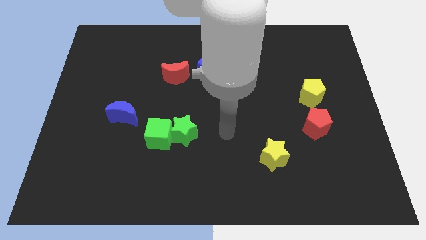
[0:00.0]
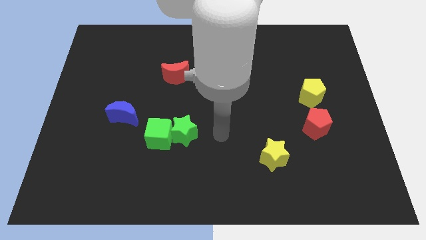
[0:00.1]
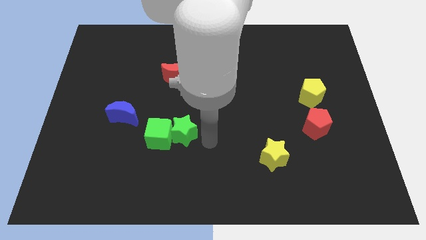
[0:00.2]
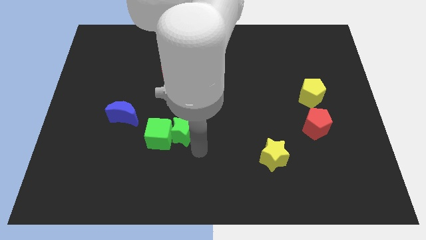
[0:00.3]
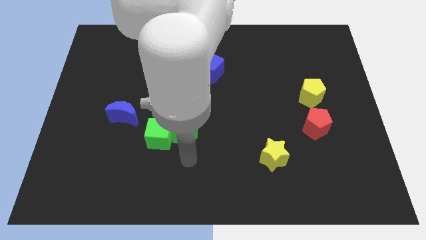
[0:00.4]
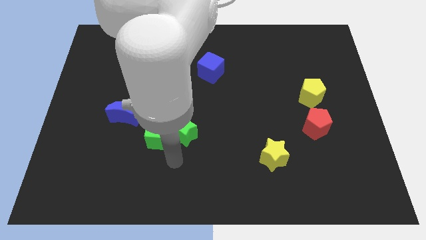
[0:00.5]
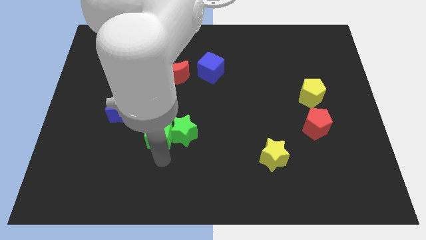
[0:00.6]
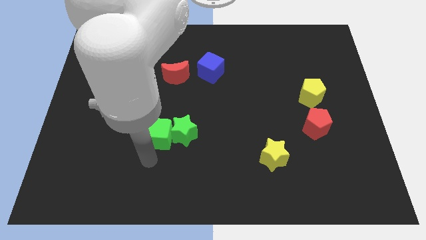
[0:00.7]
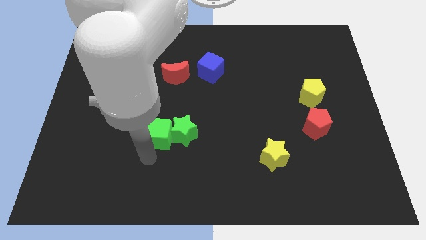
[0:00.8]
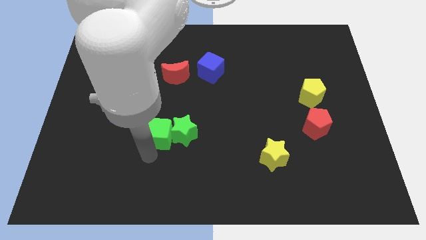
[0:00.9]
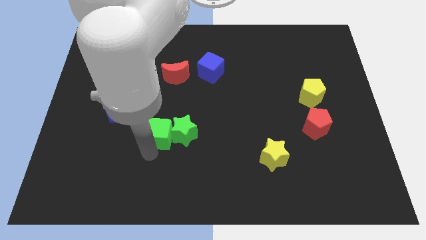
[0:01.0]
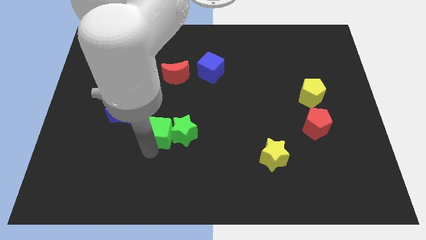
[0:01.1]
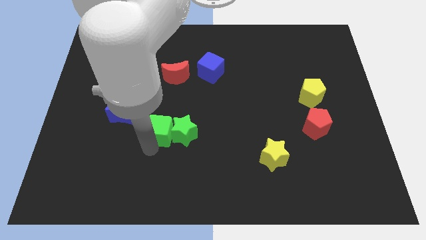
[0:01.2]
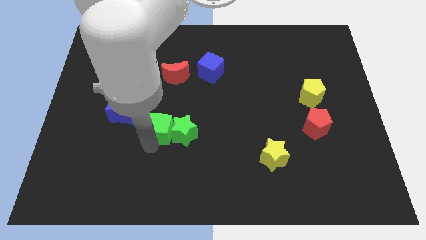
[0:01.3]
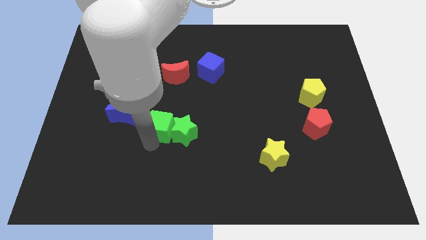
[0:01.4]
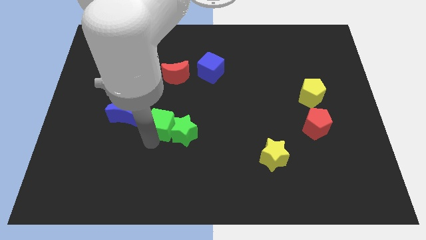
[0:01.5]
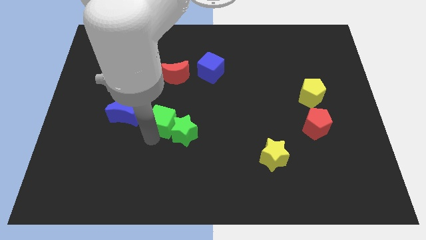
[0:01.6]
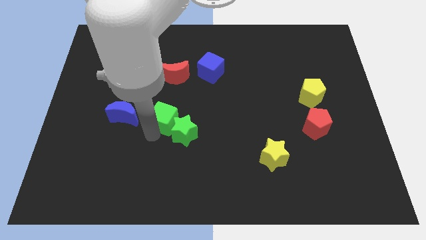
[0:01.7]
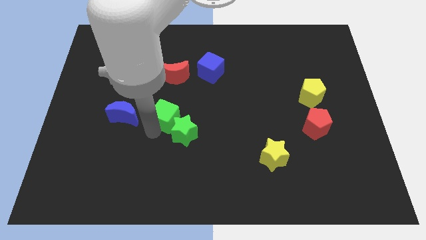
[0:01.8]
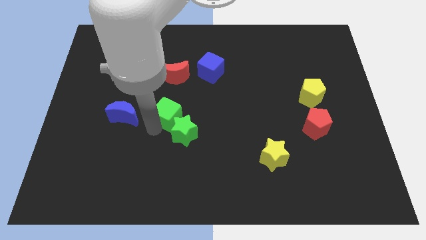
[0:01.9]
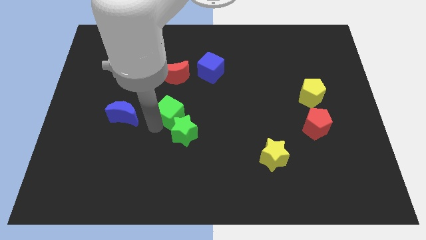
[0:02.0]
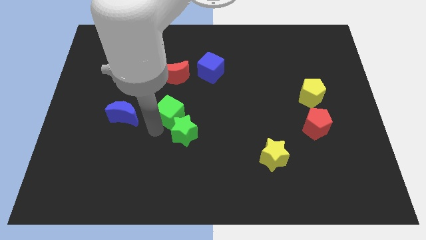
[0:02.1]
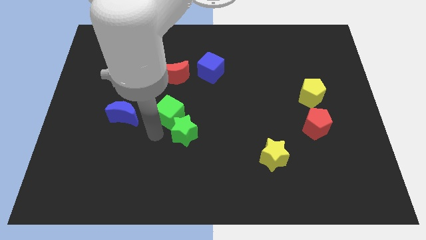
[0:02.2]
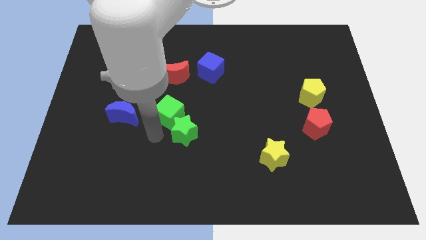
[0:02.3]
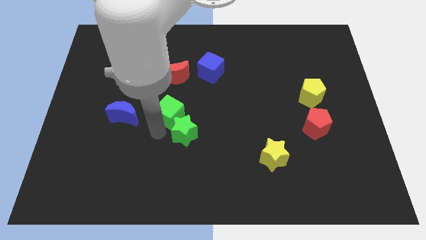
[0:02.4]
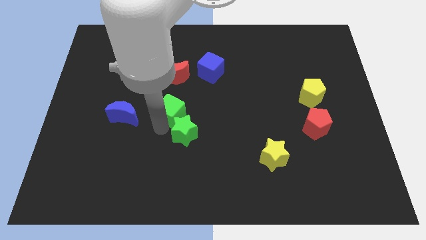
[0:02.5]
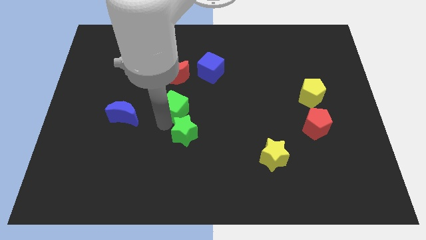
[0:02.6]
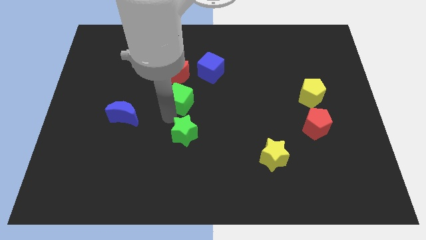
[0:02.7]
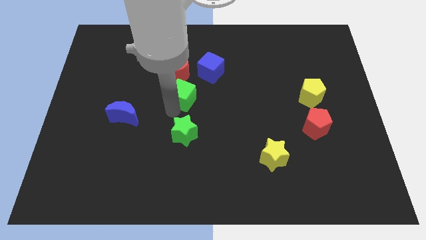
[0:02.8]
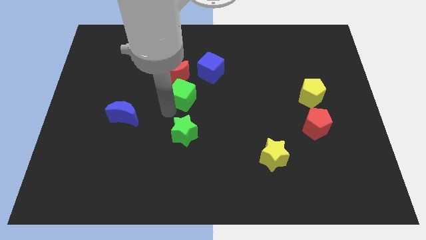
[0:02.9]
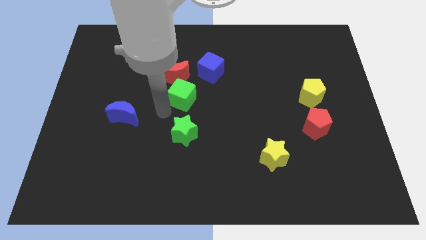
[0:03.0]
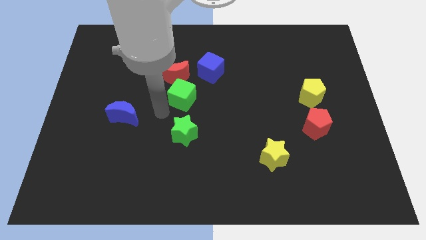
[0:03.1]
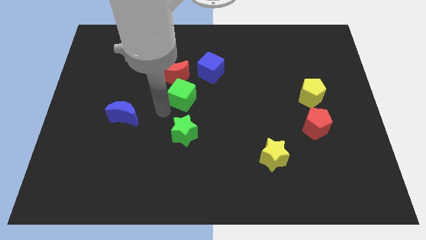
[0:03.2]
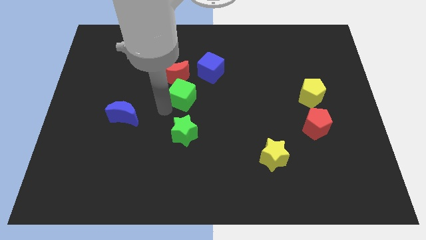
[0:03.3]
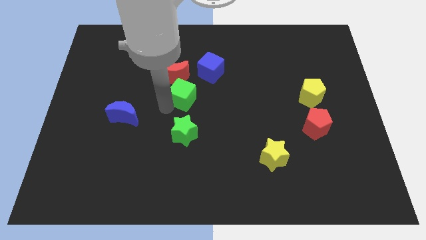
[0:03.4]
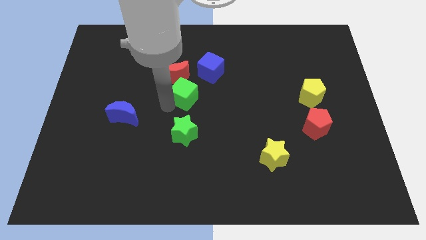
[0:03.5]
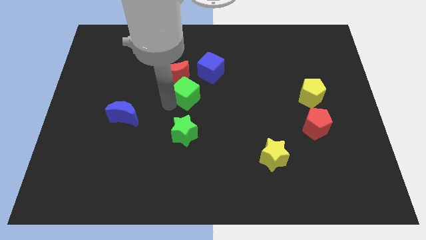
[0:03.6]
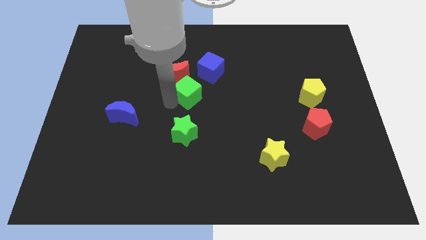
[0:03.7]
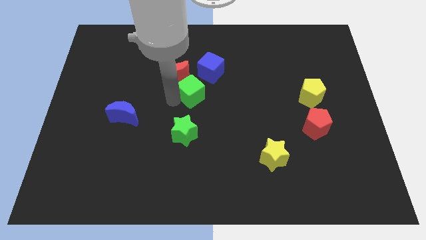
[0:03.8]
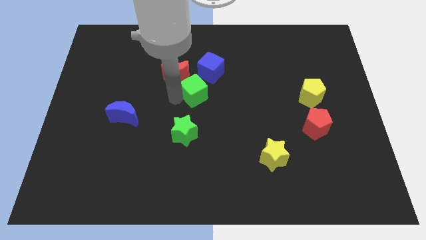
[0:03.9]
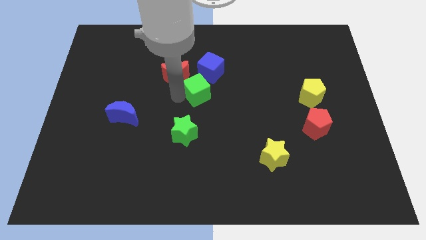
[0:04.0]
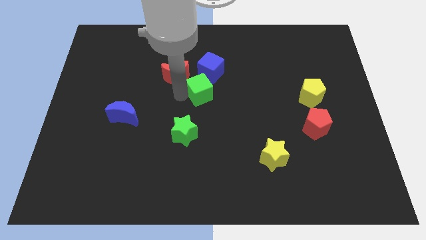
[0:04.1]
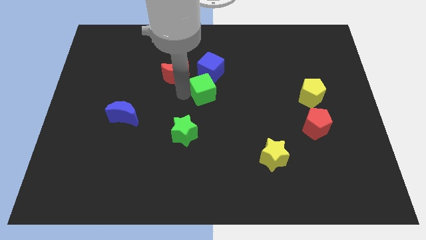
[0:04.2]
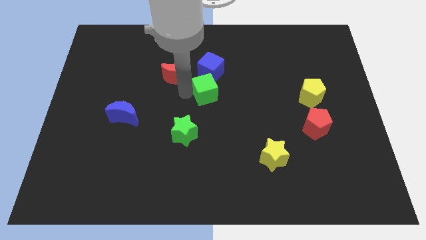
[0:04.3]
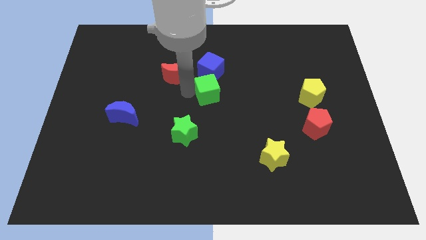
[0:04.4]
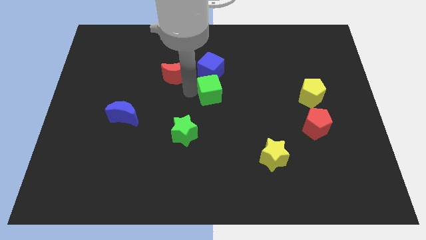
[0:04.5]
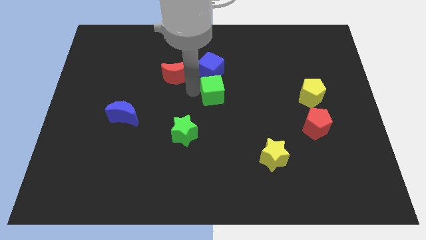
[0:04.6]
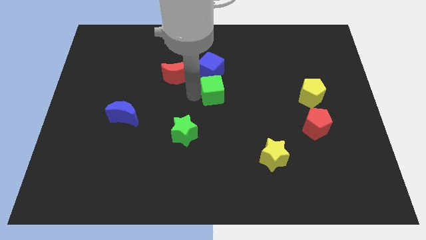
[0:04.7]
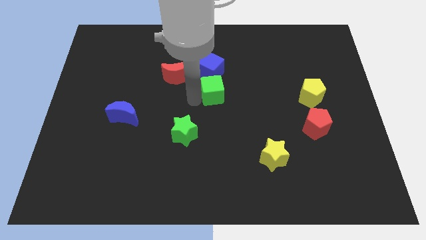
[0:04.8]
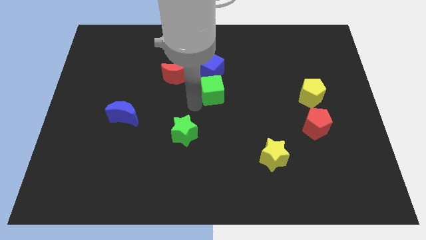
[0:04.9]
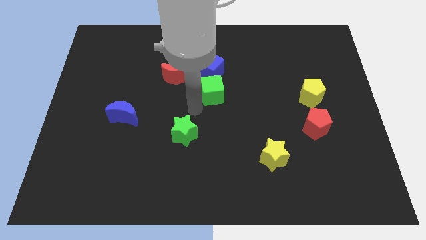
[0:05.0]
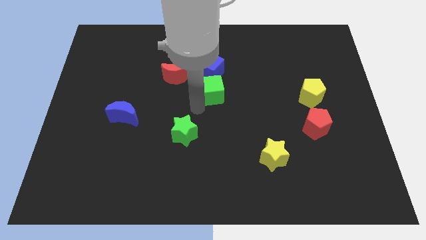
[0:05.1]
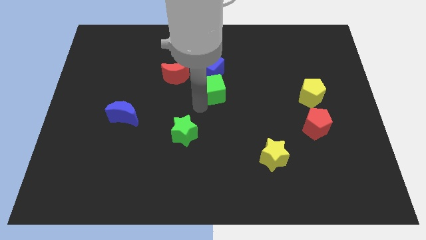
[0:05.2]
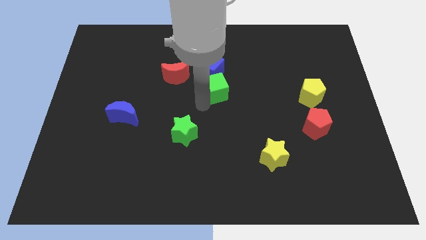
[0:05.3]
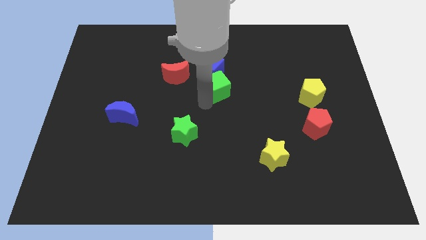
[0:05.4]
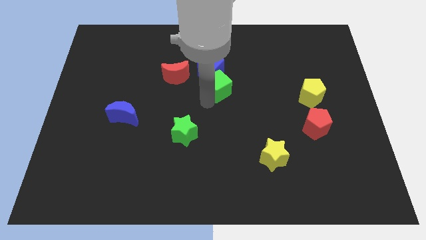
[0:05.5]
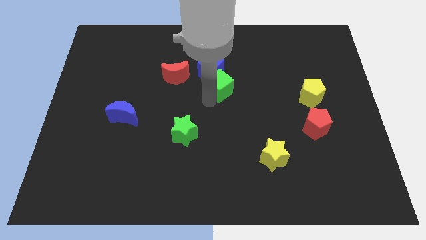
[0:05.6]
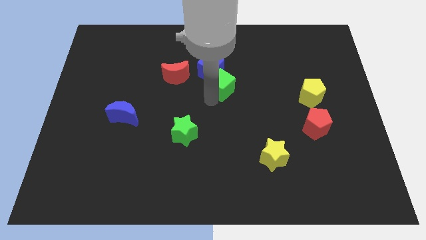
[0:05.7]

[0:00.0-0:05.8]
slide the green cube upwards and right diagonally

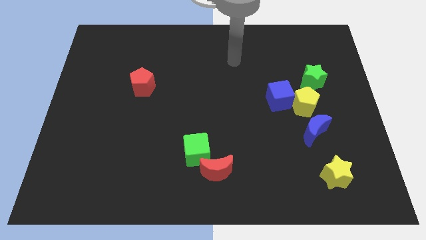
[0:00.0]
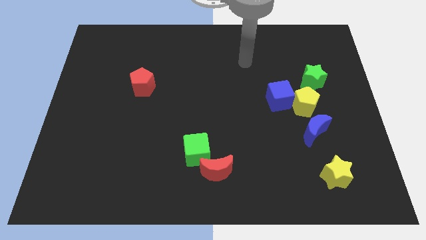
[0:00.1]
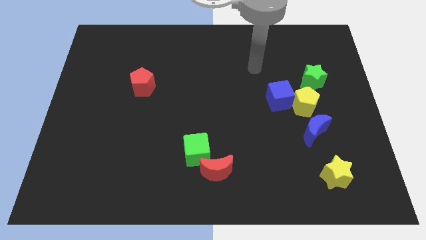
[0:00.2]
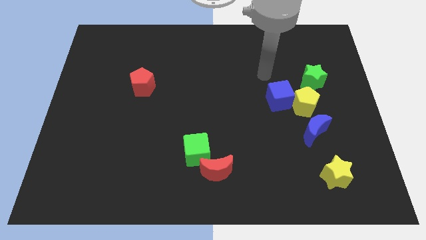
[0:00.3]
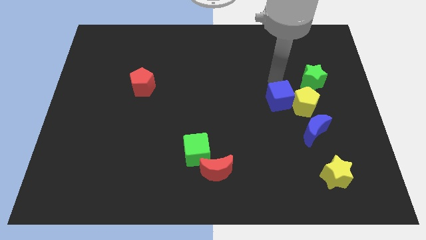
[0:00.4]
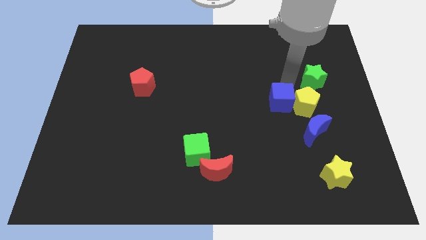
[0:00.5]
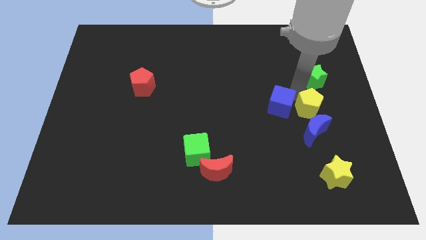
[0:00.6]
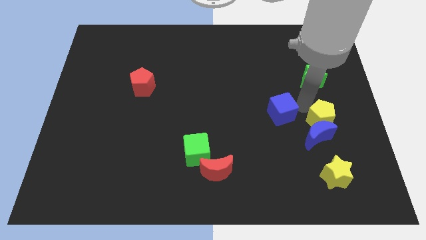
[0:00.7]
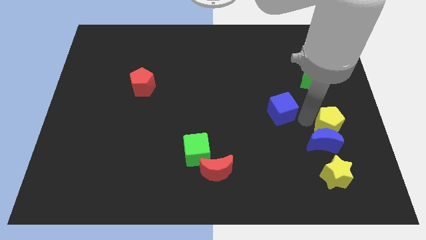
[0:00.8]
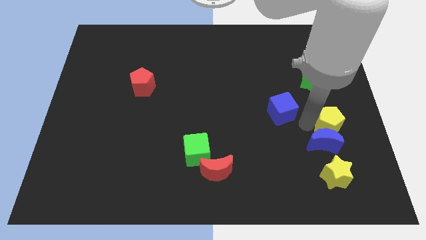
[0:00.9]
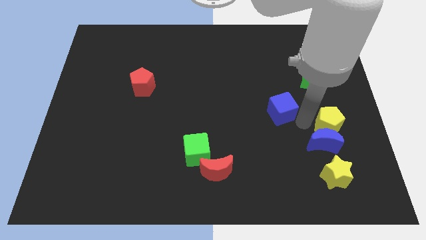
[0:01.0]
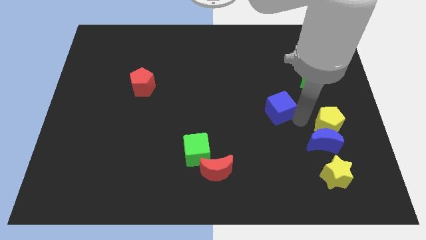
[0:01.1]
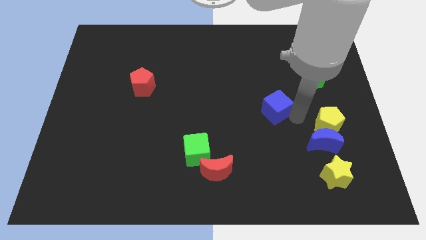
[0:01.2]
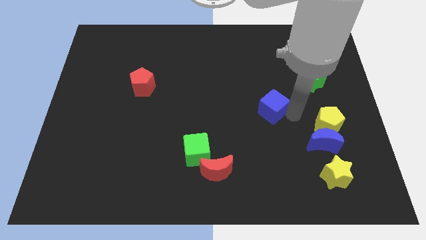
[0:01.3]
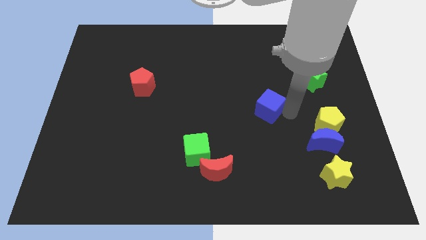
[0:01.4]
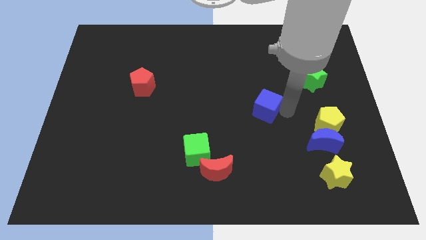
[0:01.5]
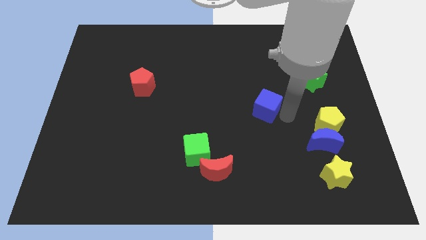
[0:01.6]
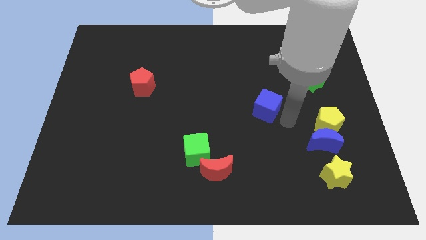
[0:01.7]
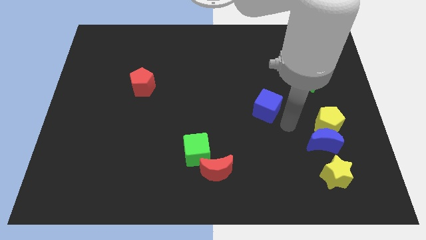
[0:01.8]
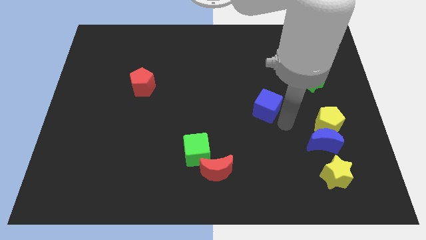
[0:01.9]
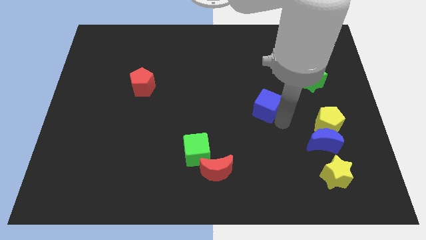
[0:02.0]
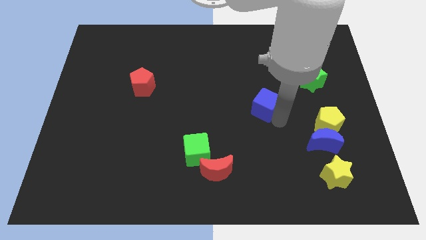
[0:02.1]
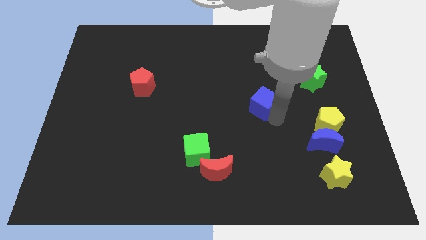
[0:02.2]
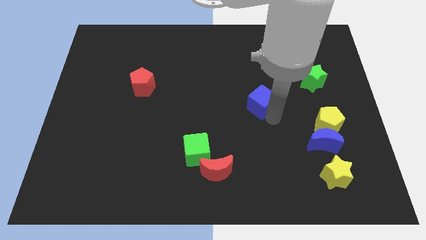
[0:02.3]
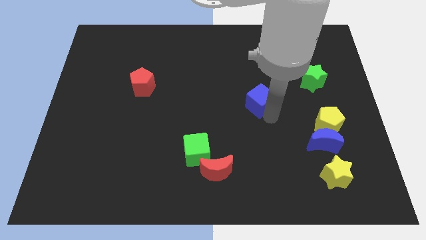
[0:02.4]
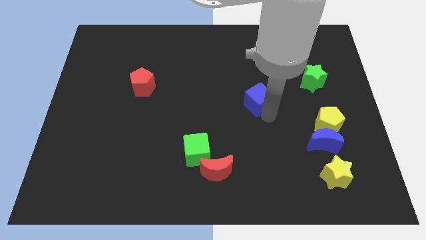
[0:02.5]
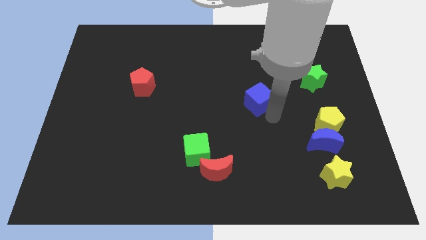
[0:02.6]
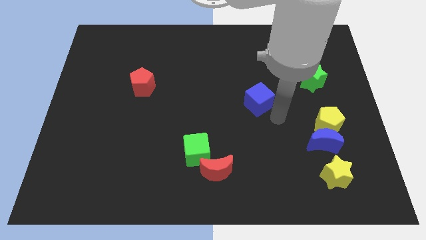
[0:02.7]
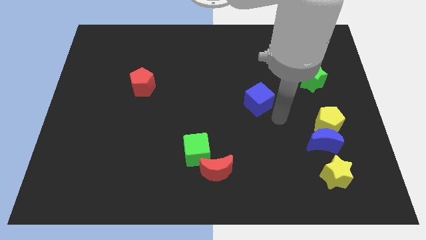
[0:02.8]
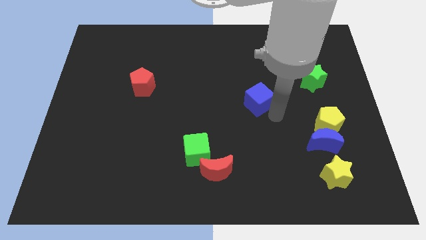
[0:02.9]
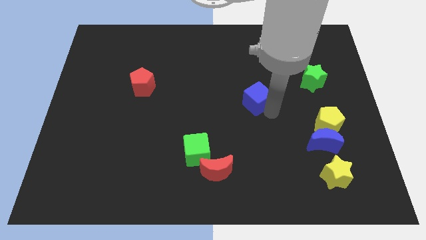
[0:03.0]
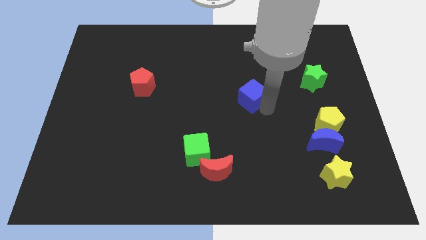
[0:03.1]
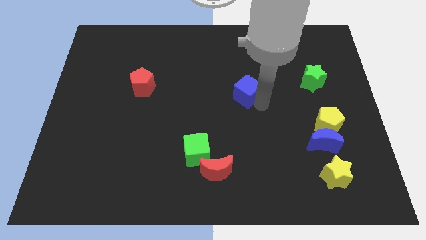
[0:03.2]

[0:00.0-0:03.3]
slightly move the blue cube to the left
